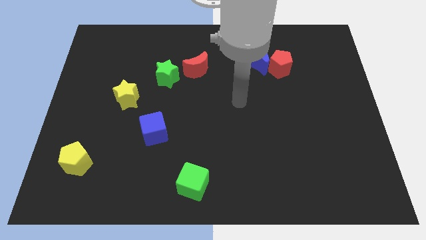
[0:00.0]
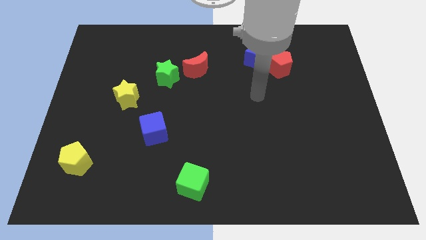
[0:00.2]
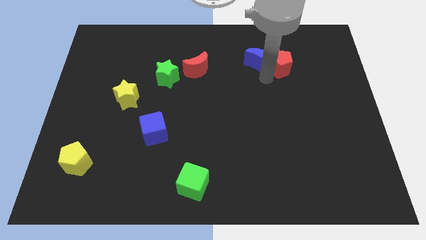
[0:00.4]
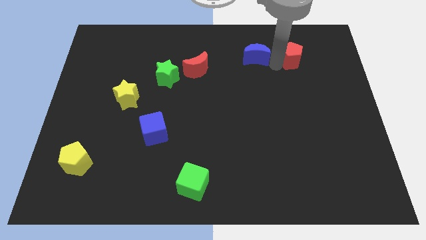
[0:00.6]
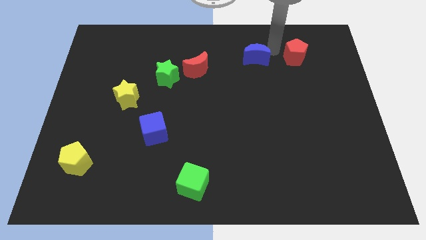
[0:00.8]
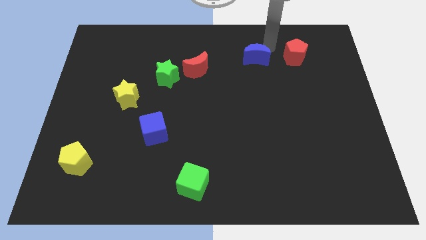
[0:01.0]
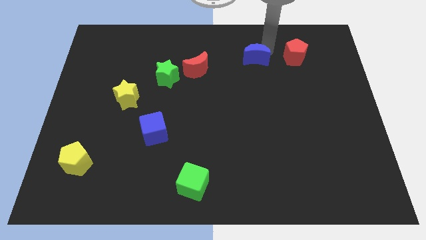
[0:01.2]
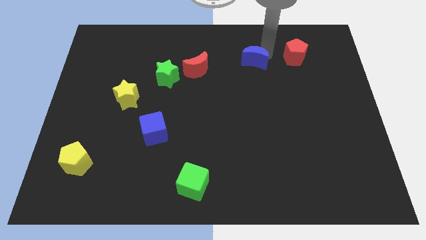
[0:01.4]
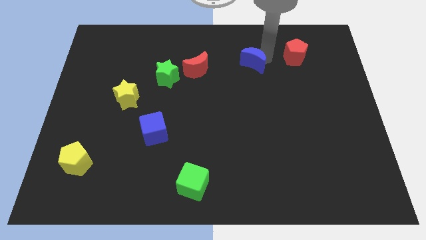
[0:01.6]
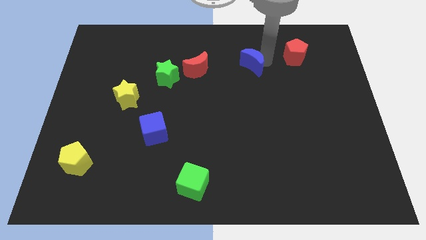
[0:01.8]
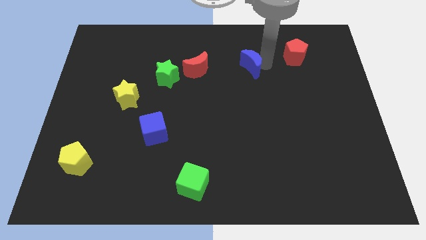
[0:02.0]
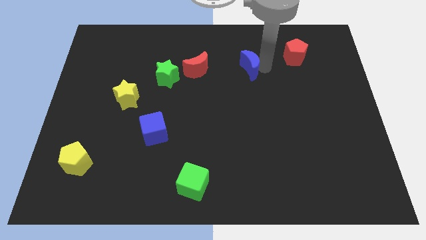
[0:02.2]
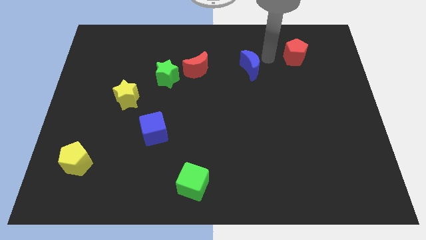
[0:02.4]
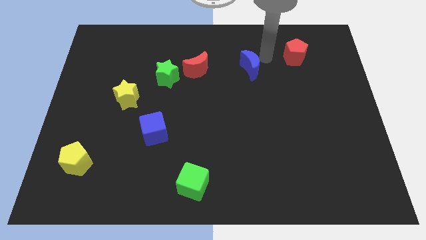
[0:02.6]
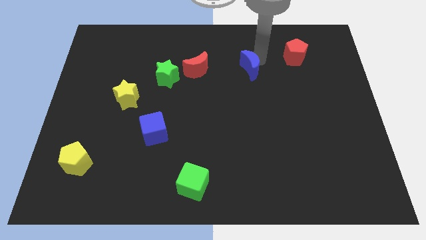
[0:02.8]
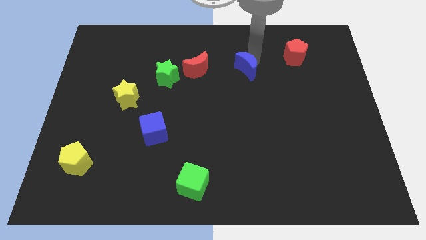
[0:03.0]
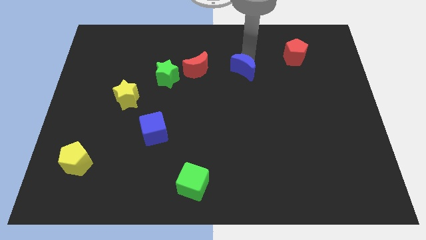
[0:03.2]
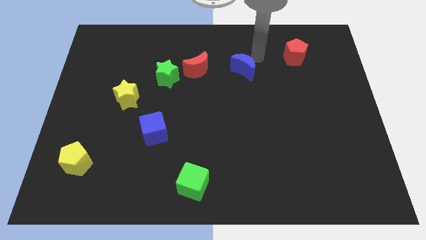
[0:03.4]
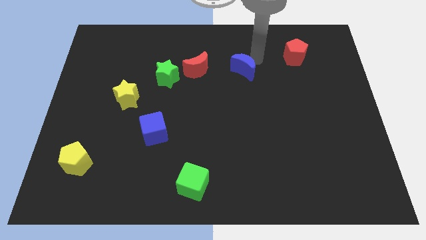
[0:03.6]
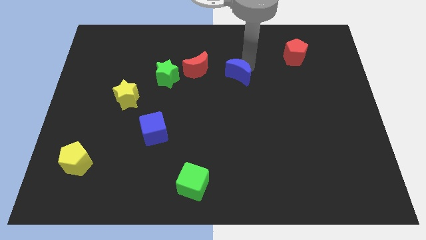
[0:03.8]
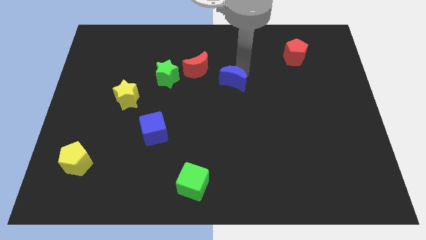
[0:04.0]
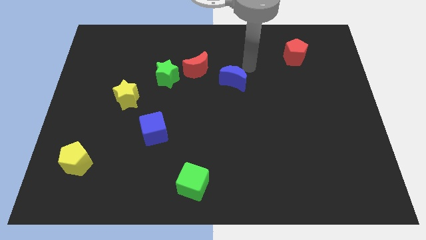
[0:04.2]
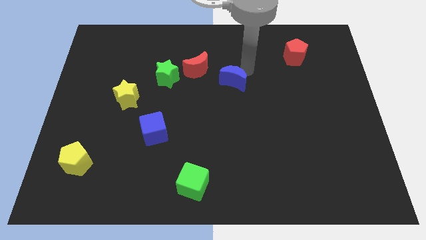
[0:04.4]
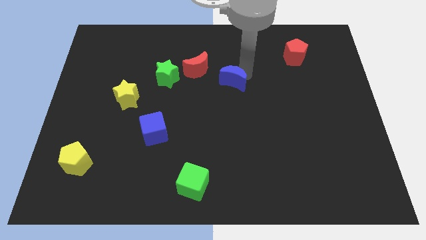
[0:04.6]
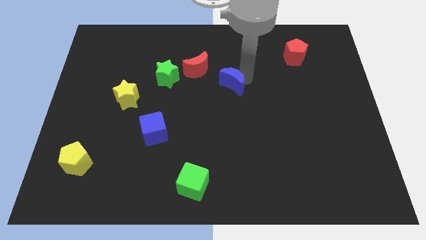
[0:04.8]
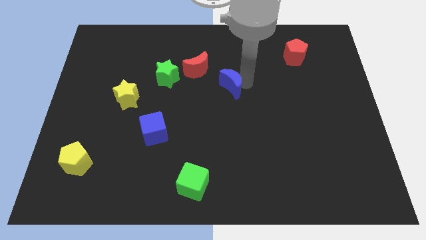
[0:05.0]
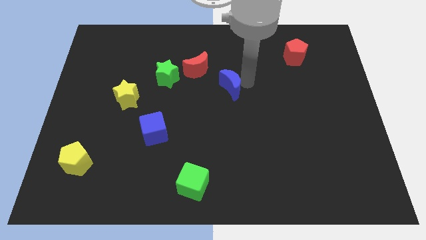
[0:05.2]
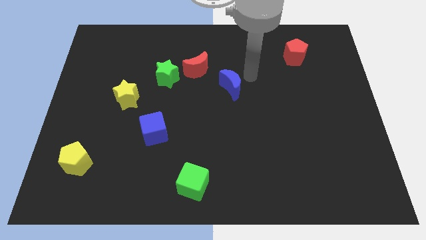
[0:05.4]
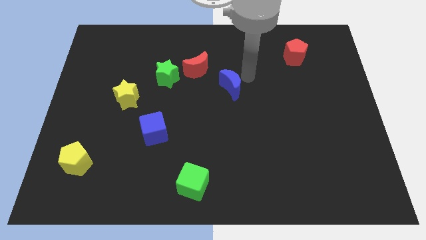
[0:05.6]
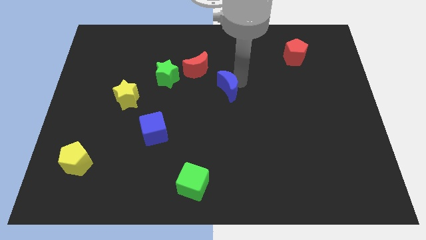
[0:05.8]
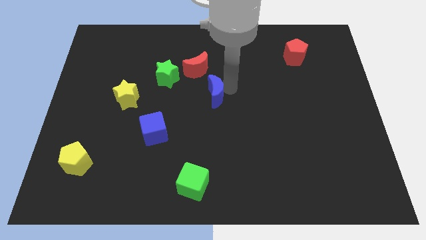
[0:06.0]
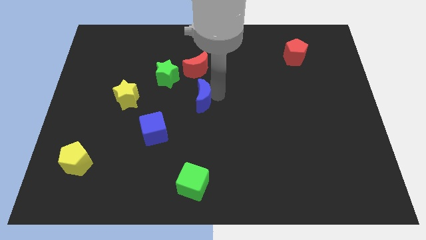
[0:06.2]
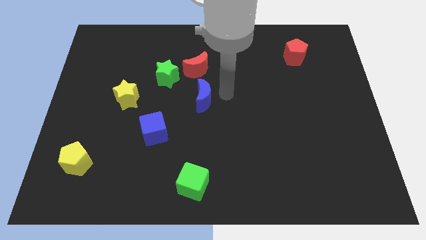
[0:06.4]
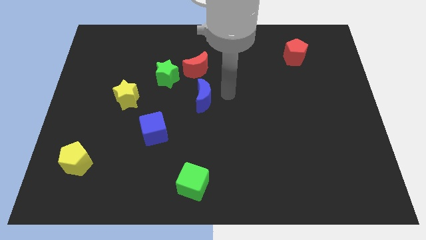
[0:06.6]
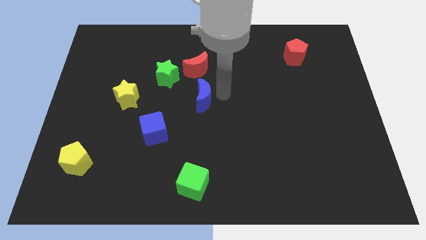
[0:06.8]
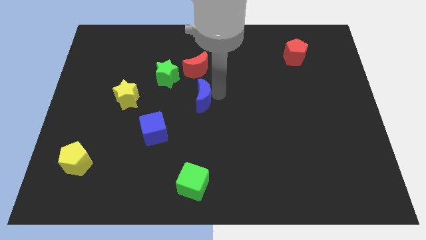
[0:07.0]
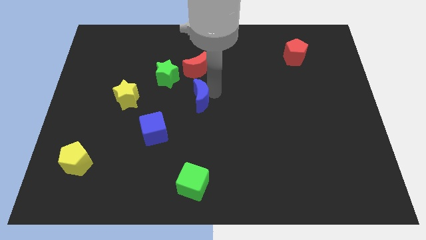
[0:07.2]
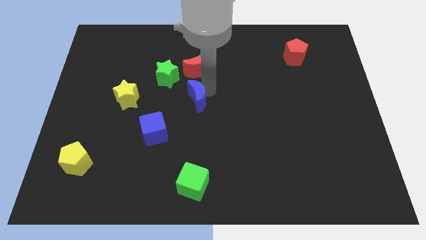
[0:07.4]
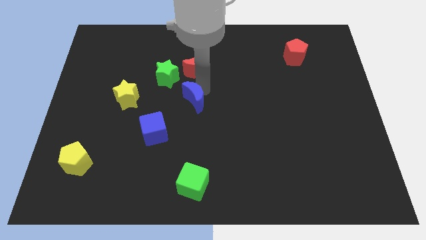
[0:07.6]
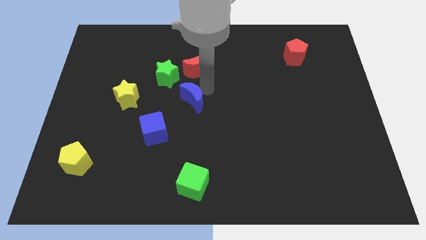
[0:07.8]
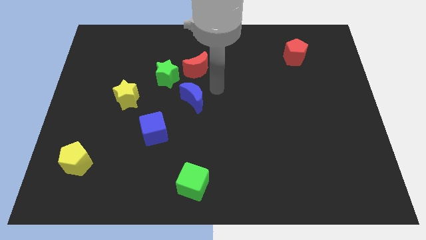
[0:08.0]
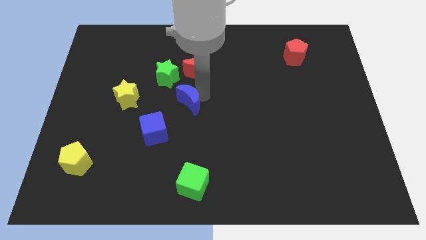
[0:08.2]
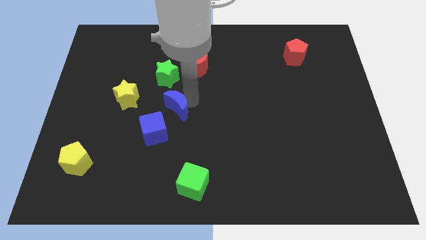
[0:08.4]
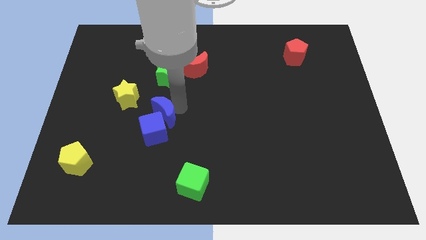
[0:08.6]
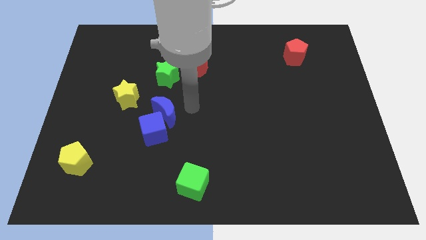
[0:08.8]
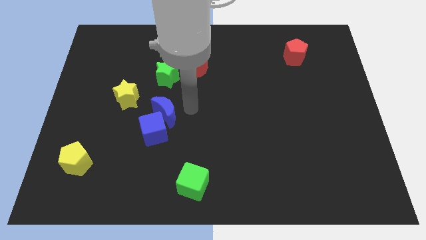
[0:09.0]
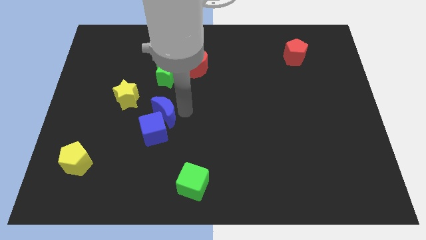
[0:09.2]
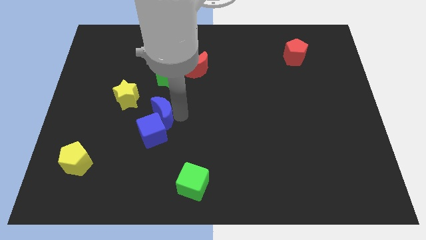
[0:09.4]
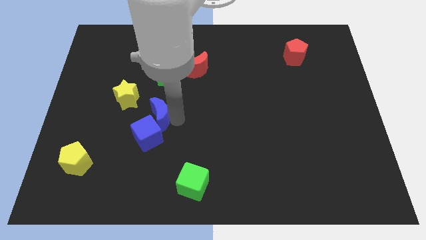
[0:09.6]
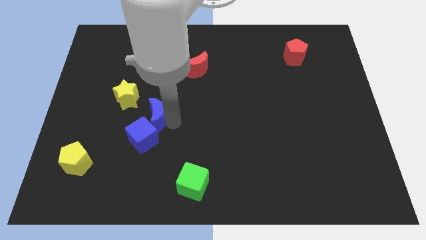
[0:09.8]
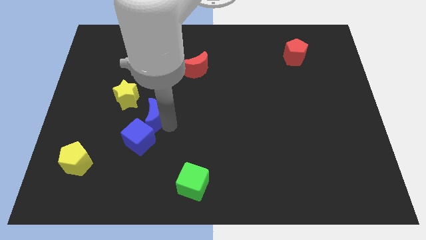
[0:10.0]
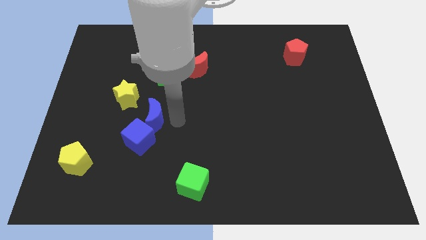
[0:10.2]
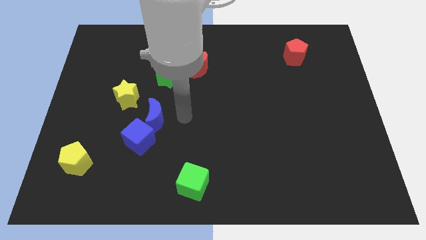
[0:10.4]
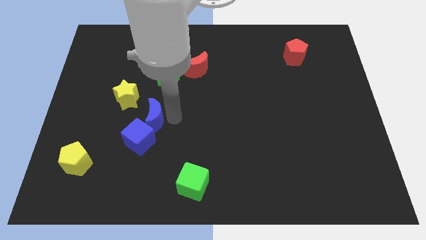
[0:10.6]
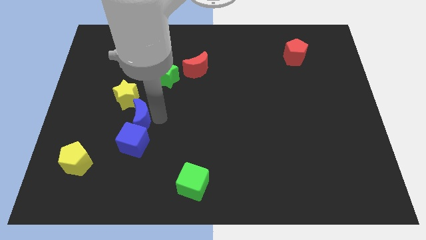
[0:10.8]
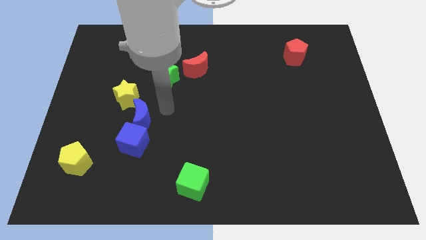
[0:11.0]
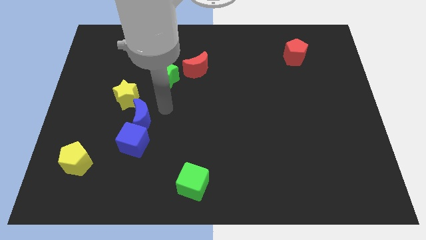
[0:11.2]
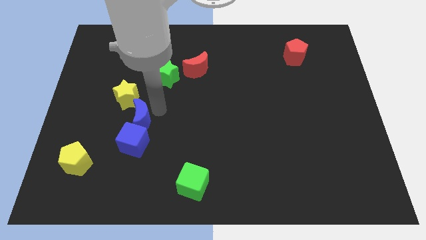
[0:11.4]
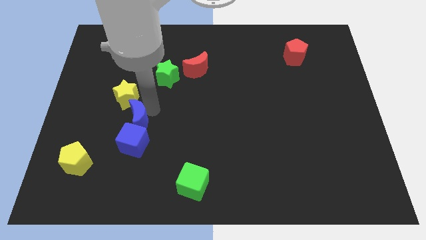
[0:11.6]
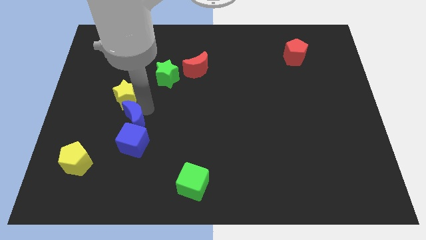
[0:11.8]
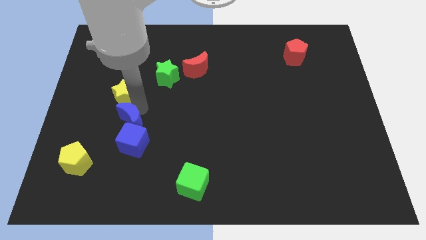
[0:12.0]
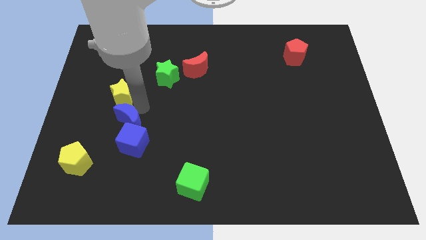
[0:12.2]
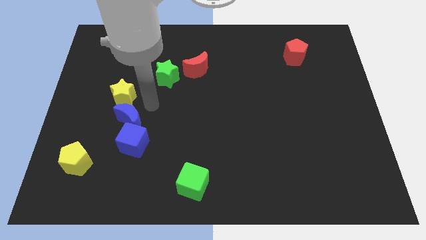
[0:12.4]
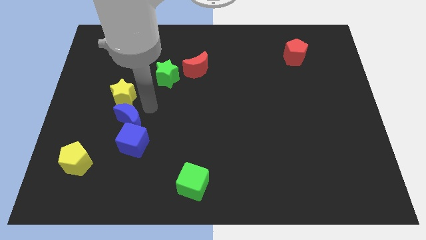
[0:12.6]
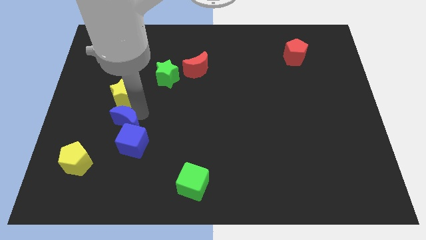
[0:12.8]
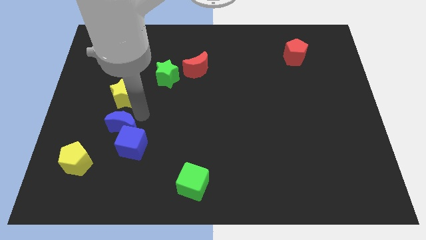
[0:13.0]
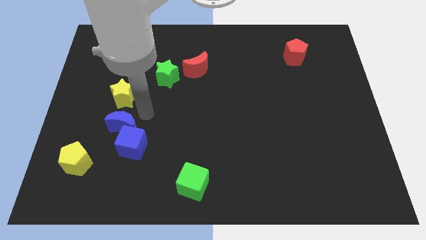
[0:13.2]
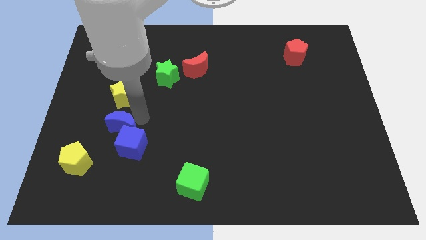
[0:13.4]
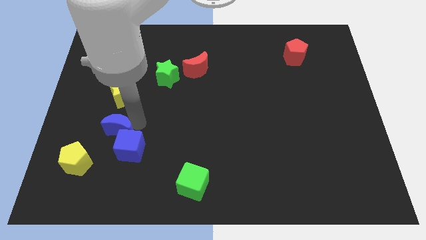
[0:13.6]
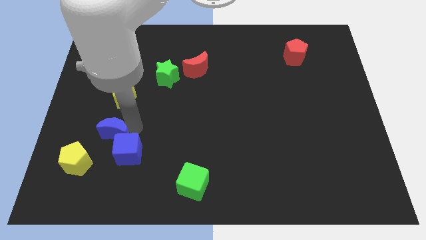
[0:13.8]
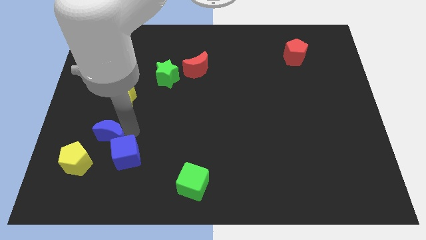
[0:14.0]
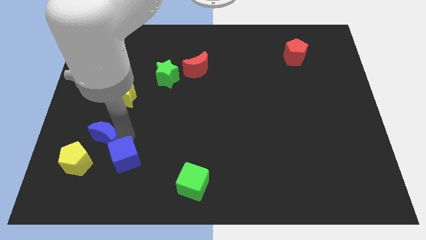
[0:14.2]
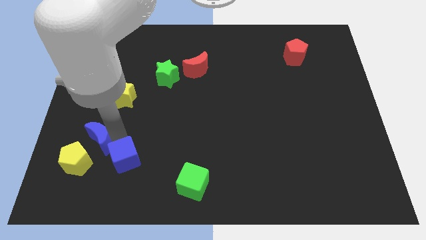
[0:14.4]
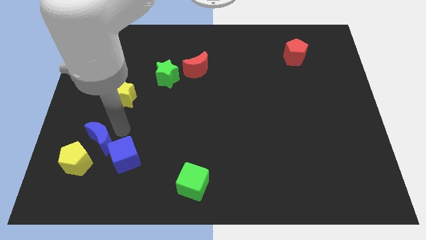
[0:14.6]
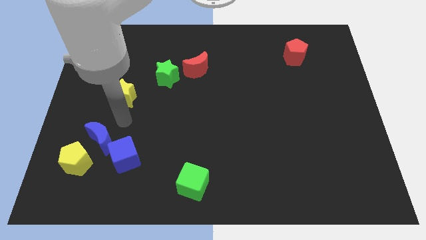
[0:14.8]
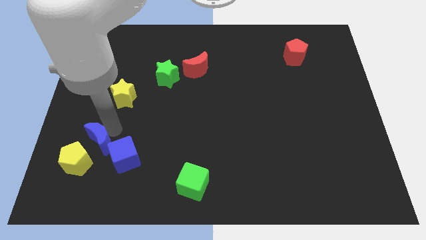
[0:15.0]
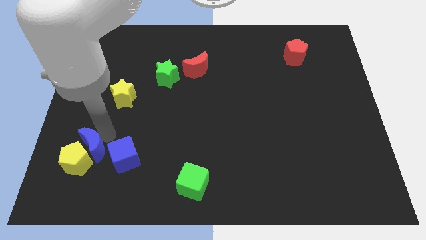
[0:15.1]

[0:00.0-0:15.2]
put the blue moon next to the yellow pentagon
